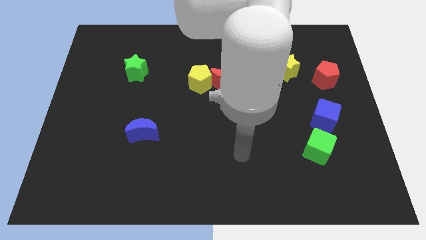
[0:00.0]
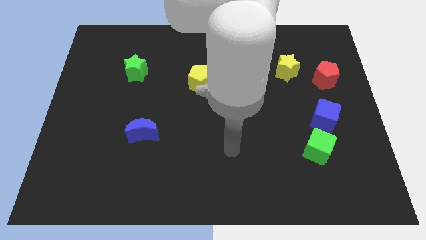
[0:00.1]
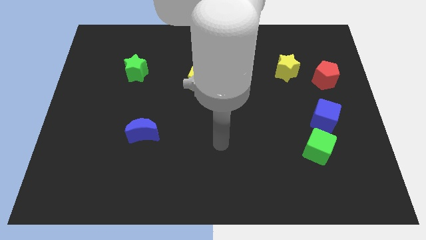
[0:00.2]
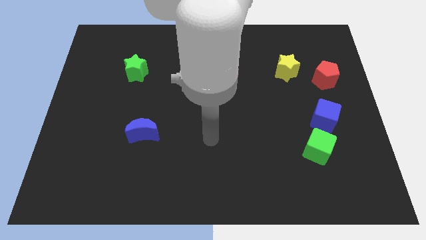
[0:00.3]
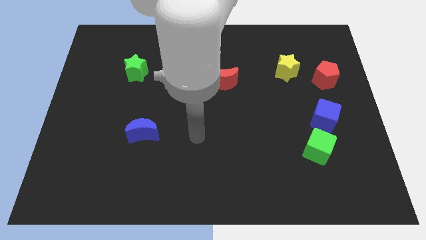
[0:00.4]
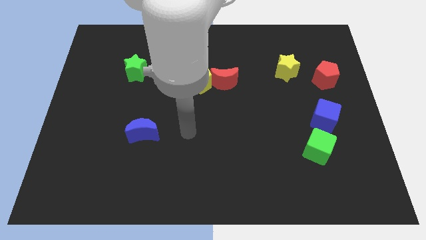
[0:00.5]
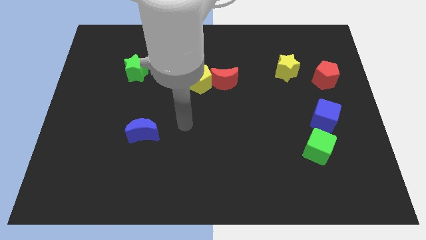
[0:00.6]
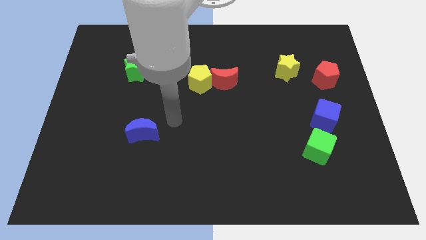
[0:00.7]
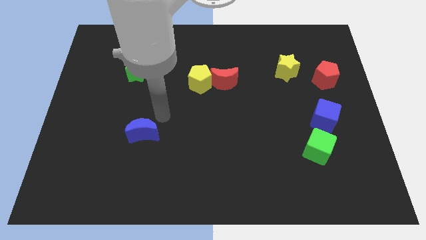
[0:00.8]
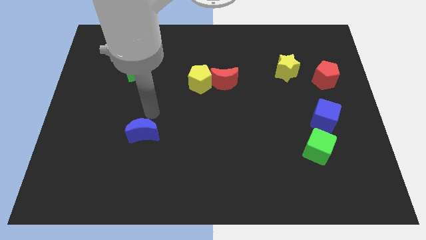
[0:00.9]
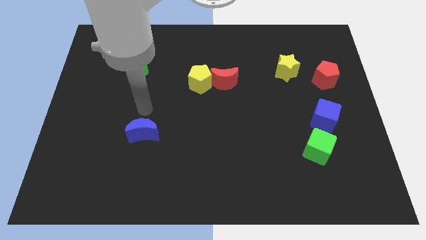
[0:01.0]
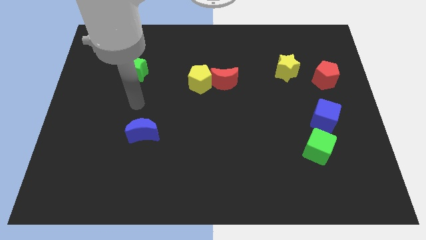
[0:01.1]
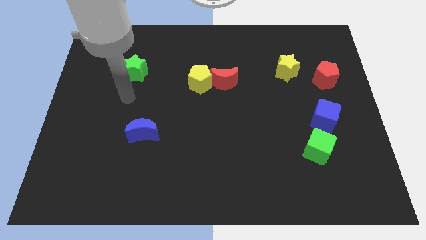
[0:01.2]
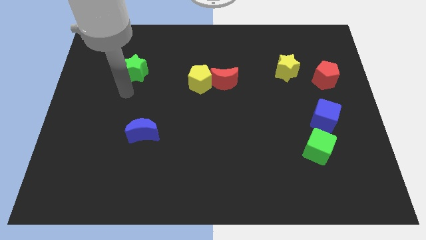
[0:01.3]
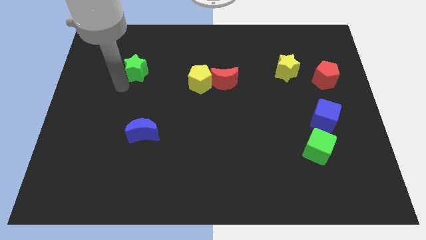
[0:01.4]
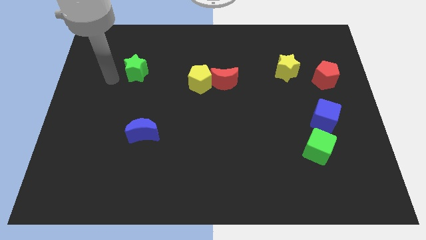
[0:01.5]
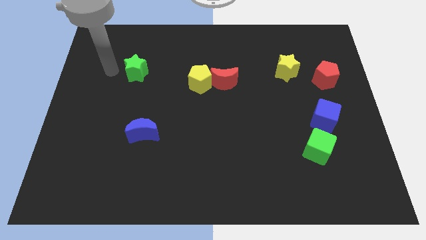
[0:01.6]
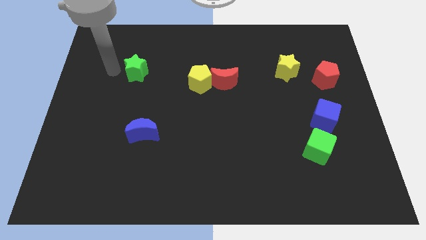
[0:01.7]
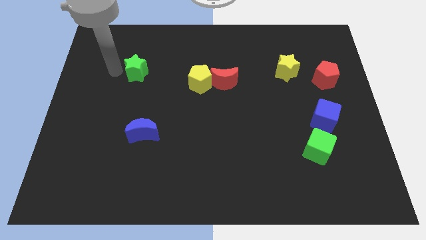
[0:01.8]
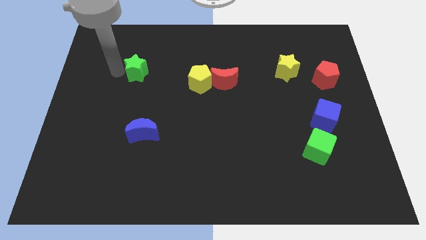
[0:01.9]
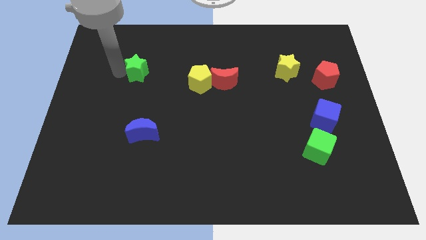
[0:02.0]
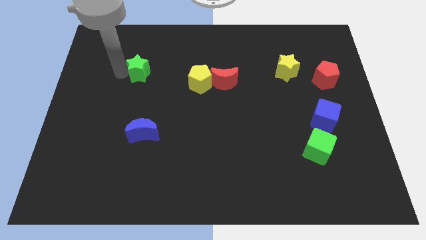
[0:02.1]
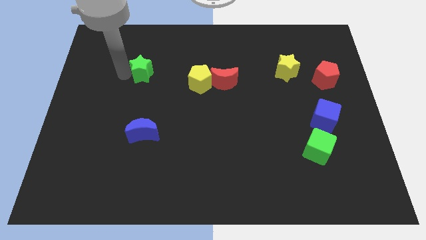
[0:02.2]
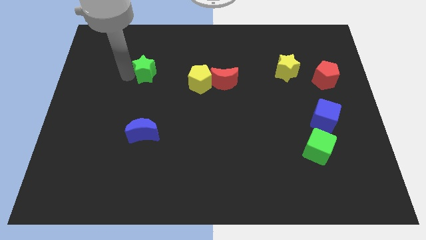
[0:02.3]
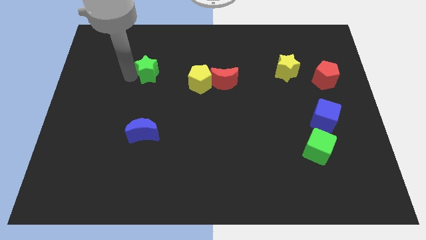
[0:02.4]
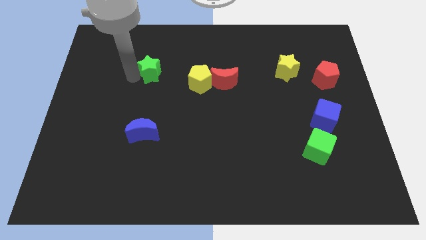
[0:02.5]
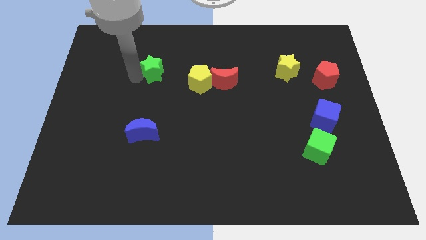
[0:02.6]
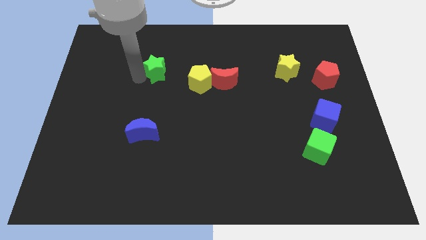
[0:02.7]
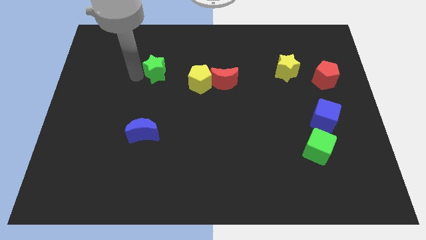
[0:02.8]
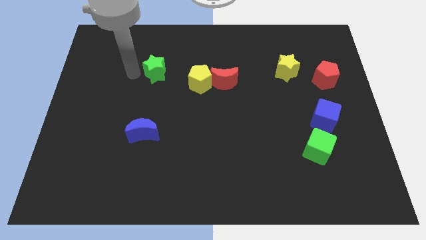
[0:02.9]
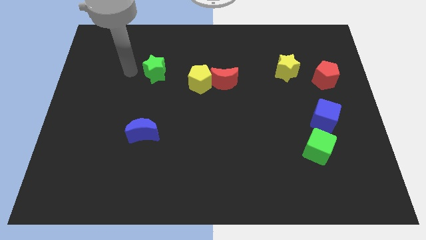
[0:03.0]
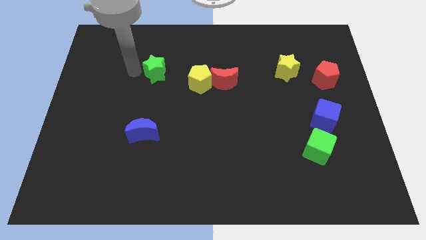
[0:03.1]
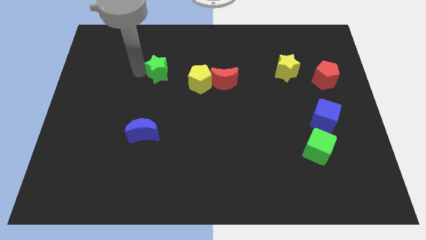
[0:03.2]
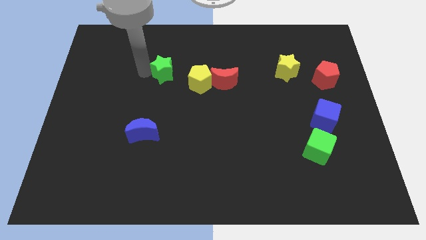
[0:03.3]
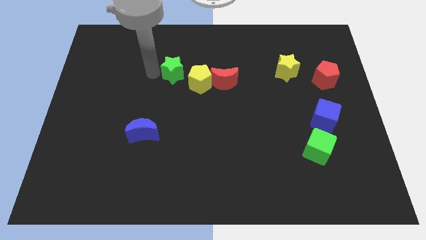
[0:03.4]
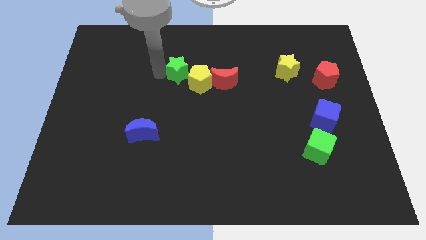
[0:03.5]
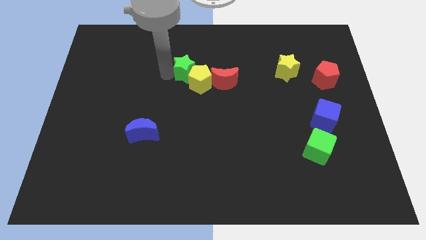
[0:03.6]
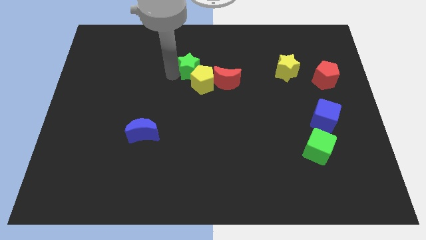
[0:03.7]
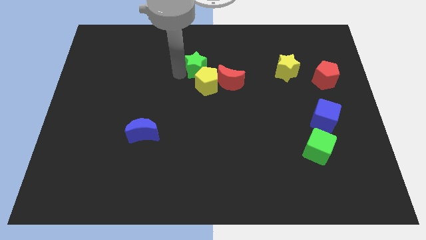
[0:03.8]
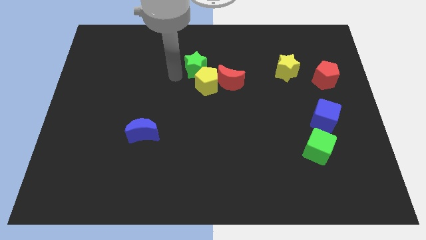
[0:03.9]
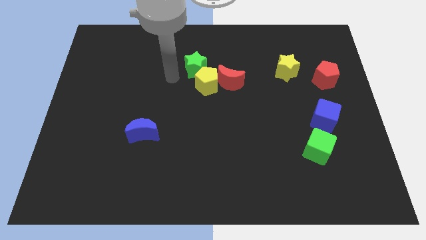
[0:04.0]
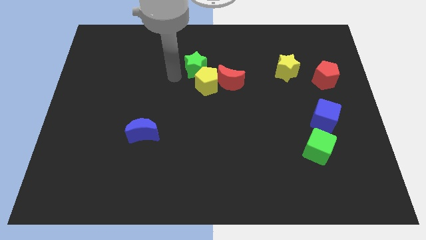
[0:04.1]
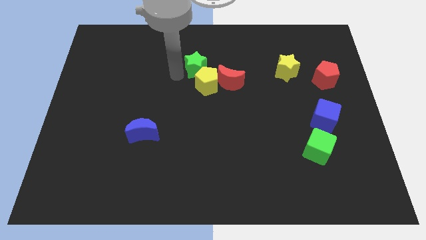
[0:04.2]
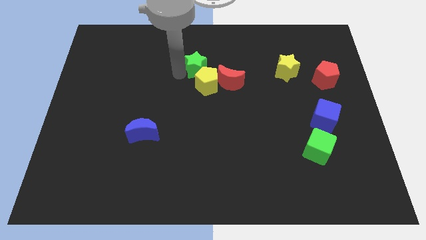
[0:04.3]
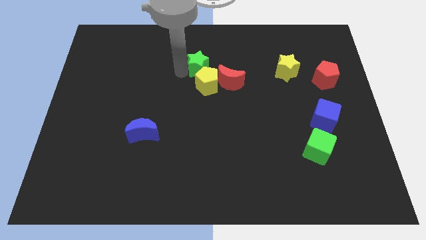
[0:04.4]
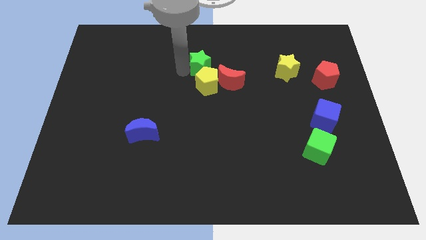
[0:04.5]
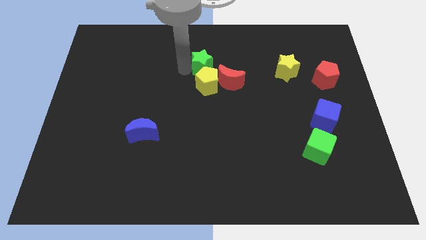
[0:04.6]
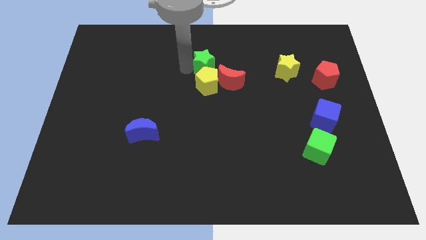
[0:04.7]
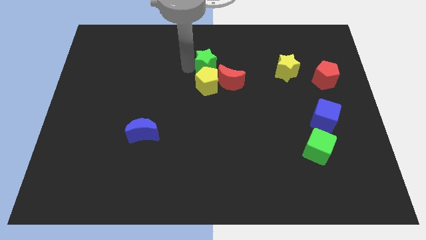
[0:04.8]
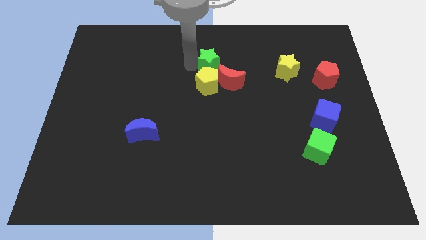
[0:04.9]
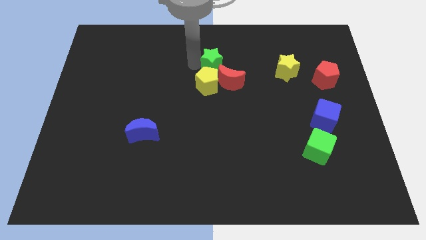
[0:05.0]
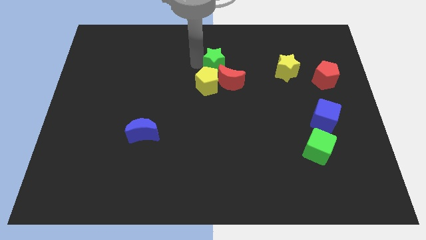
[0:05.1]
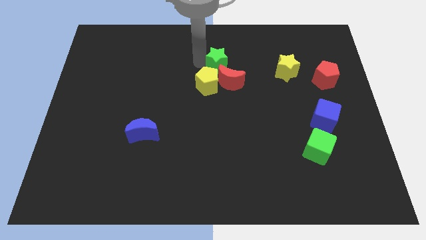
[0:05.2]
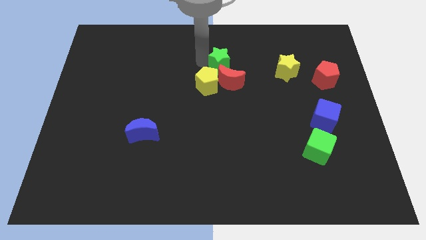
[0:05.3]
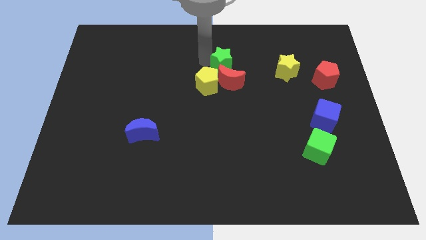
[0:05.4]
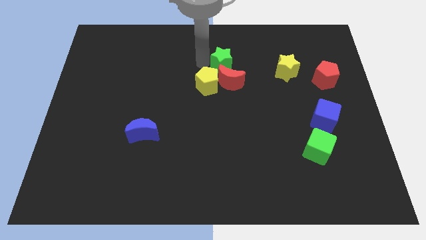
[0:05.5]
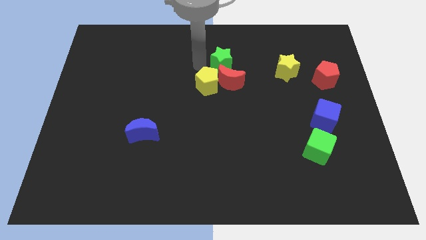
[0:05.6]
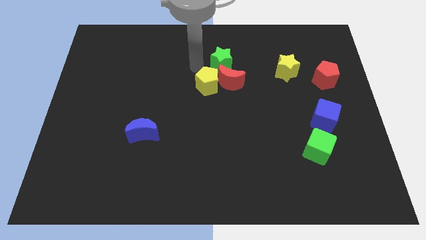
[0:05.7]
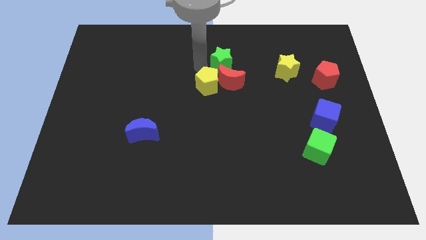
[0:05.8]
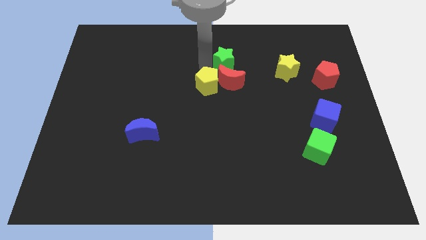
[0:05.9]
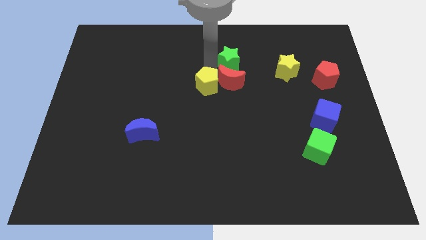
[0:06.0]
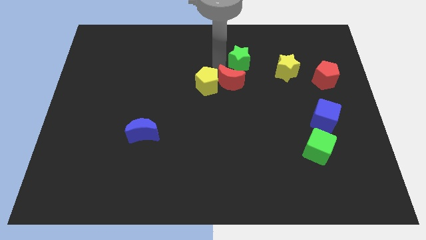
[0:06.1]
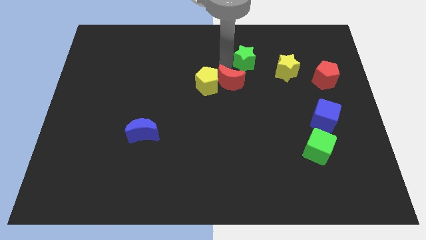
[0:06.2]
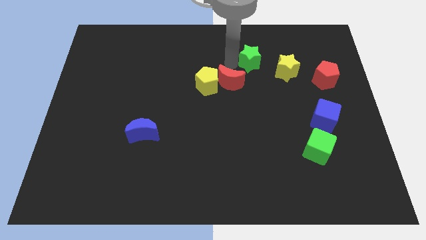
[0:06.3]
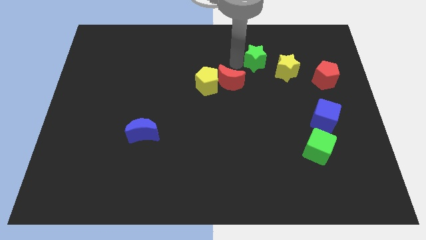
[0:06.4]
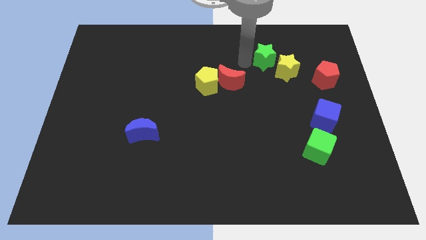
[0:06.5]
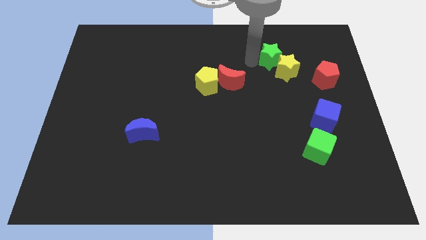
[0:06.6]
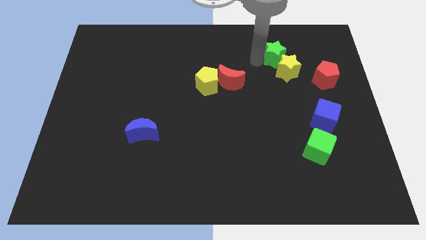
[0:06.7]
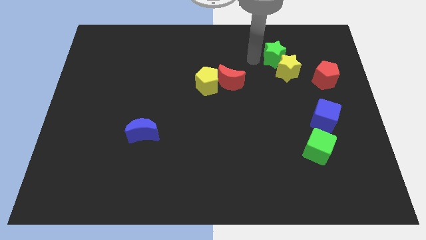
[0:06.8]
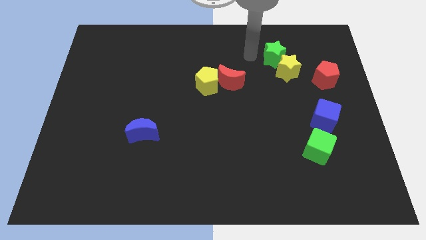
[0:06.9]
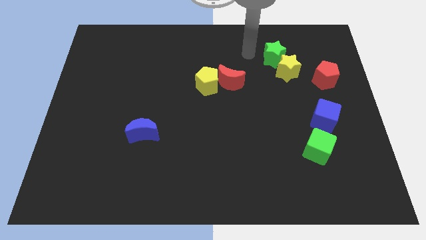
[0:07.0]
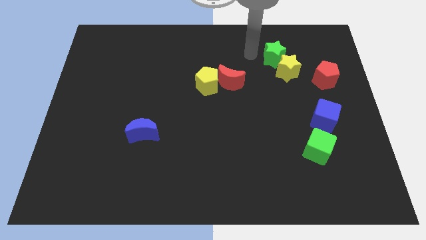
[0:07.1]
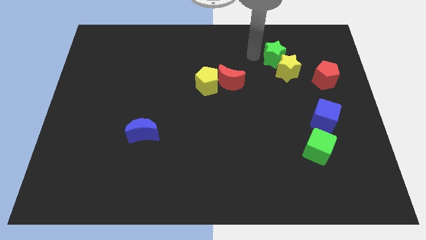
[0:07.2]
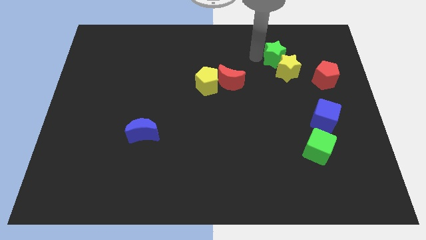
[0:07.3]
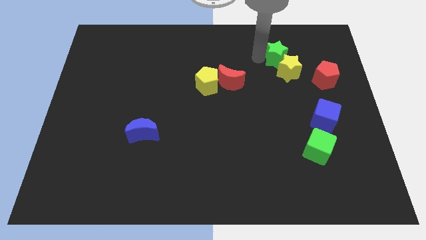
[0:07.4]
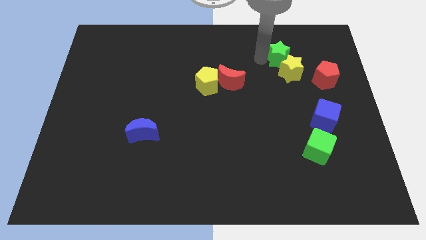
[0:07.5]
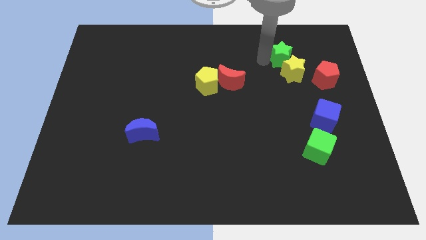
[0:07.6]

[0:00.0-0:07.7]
slide the green star diagonally up and to the left of the red pentagon
